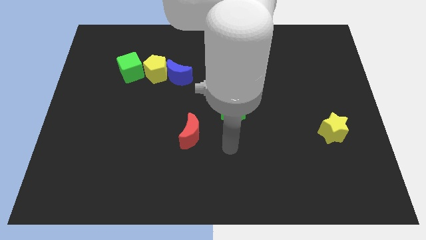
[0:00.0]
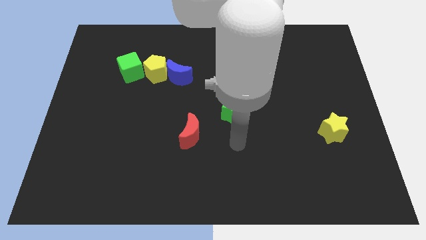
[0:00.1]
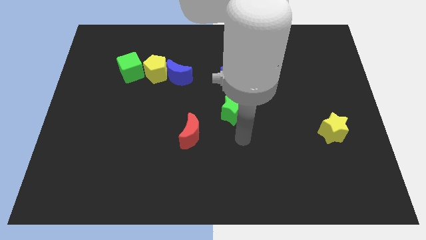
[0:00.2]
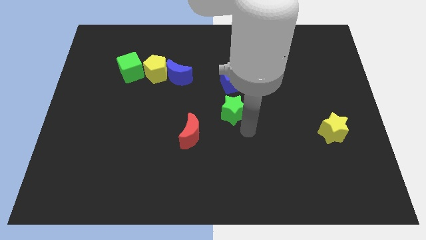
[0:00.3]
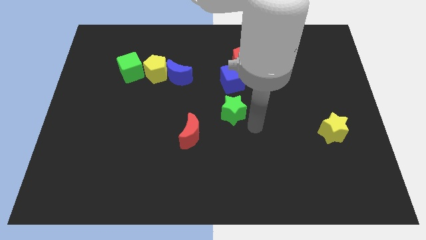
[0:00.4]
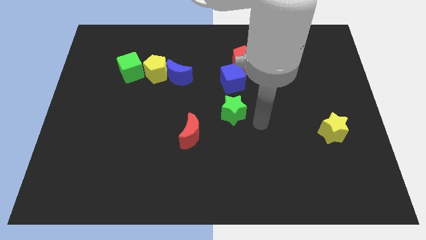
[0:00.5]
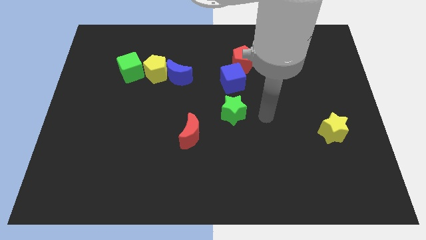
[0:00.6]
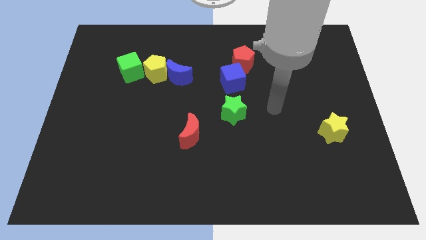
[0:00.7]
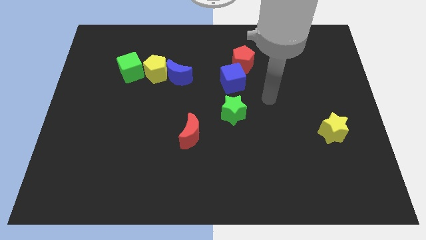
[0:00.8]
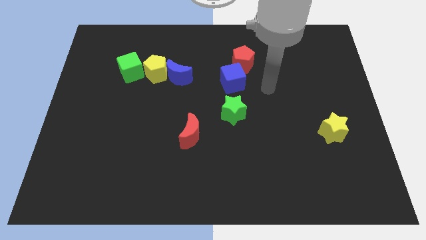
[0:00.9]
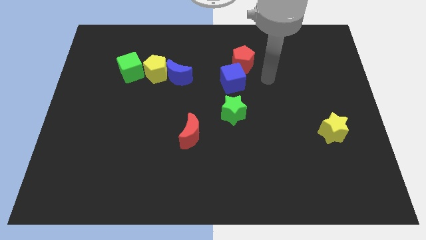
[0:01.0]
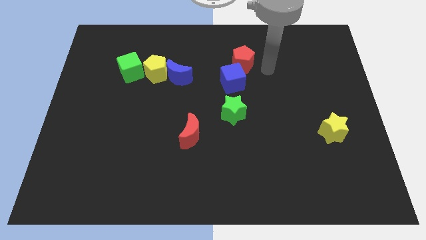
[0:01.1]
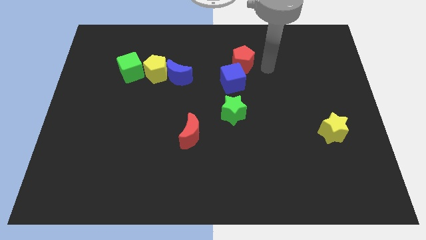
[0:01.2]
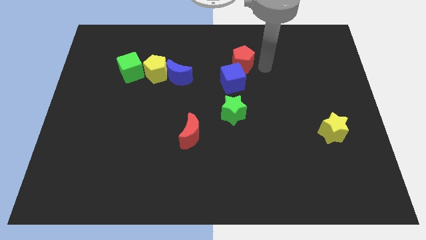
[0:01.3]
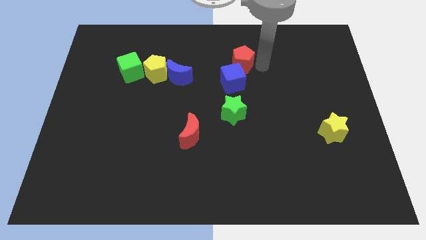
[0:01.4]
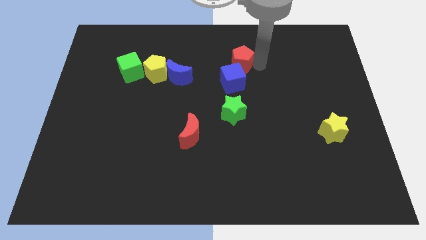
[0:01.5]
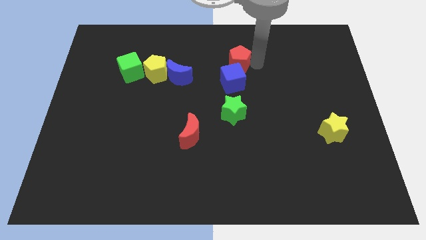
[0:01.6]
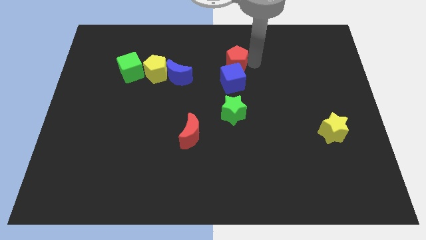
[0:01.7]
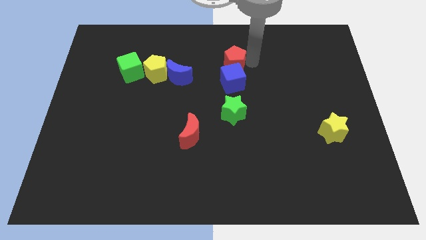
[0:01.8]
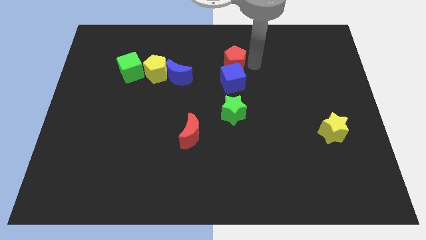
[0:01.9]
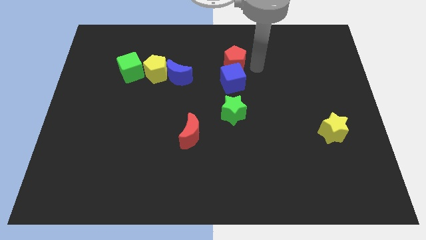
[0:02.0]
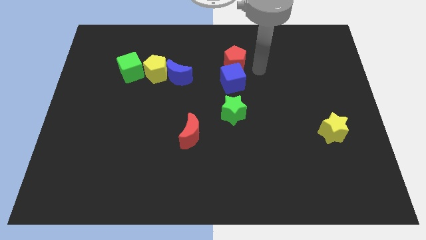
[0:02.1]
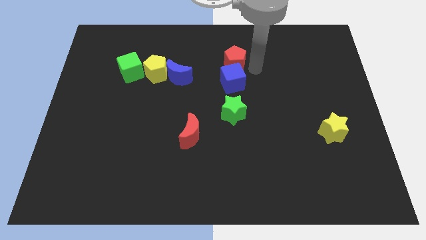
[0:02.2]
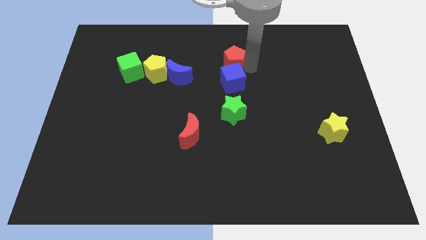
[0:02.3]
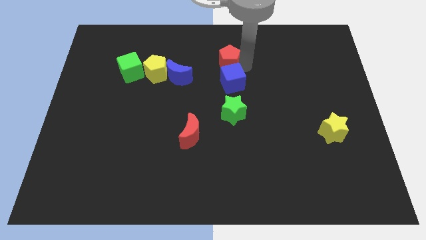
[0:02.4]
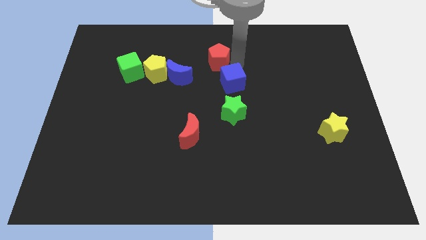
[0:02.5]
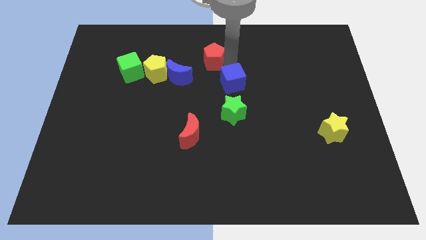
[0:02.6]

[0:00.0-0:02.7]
push the red pentagon a little bit to the left

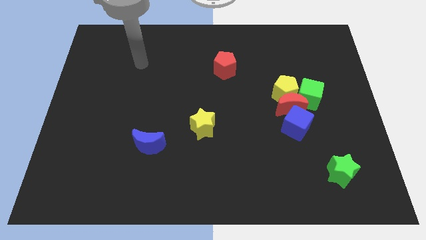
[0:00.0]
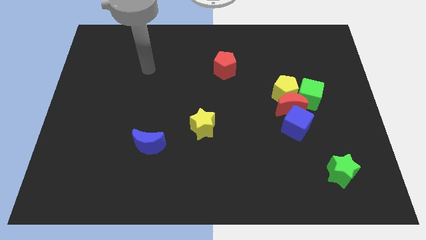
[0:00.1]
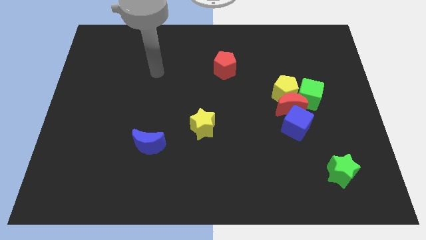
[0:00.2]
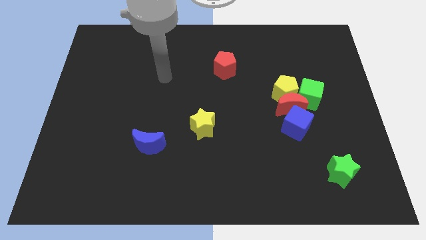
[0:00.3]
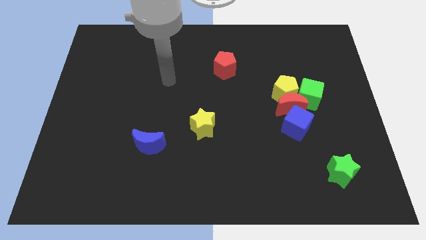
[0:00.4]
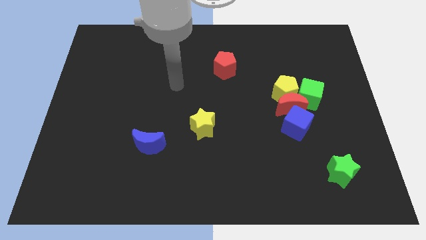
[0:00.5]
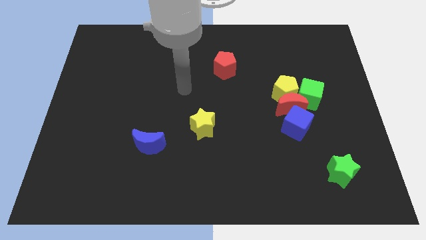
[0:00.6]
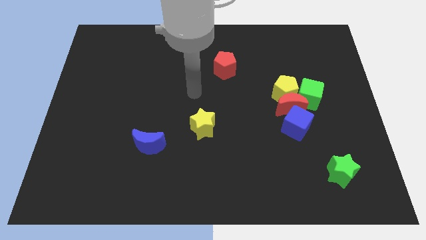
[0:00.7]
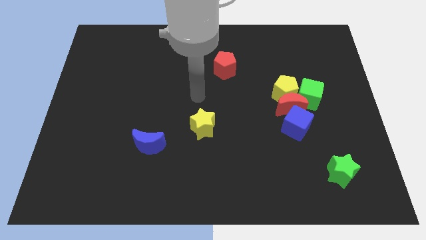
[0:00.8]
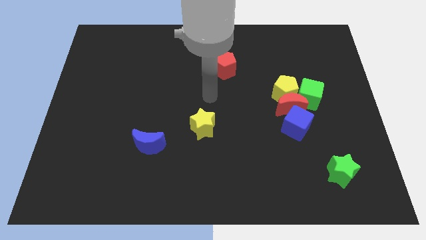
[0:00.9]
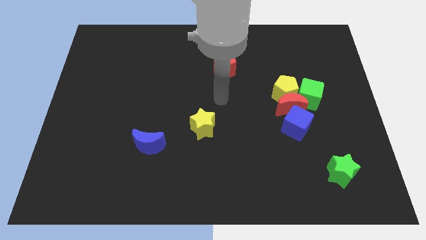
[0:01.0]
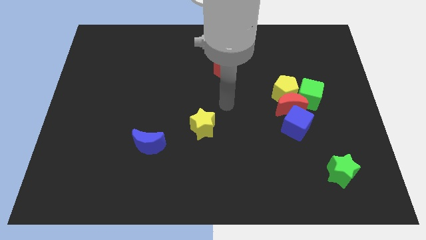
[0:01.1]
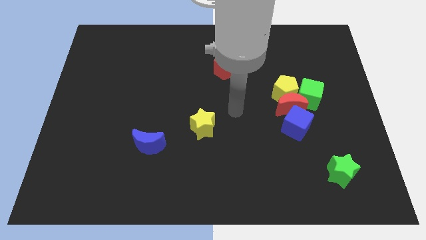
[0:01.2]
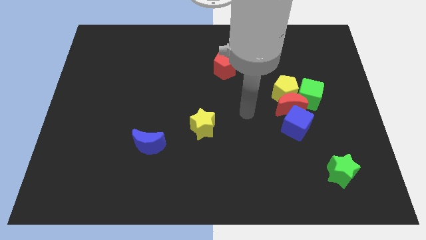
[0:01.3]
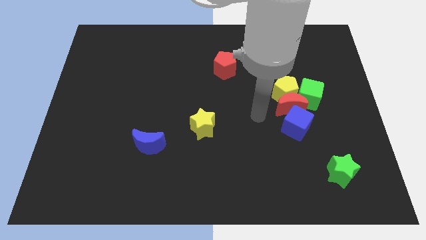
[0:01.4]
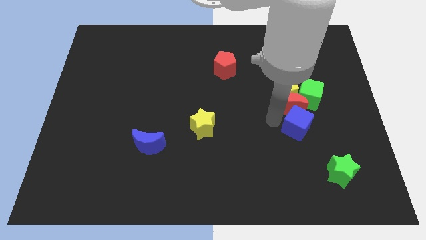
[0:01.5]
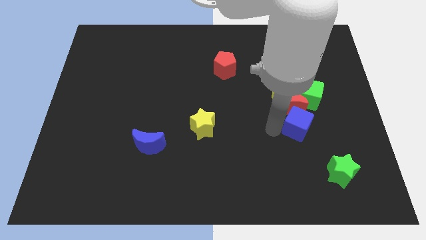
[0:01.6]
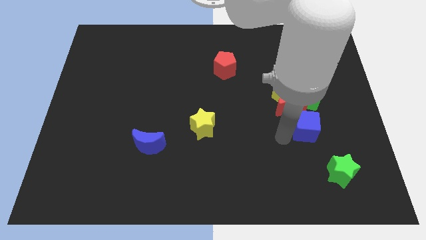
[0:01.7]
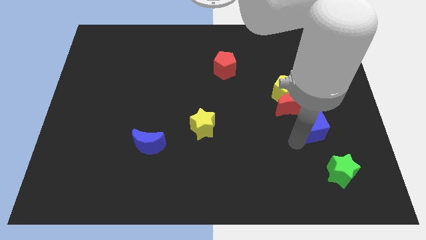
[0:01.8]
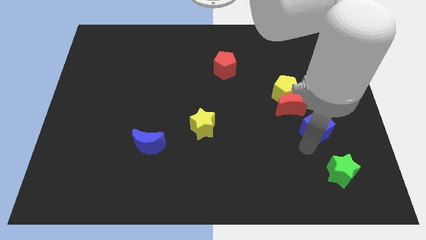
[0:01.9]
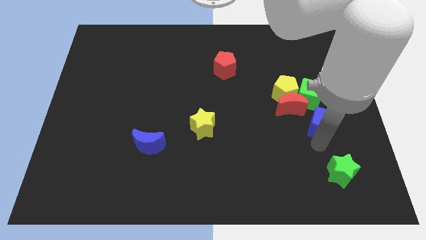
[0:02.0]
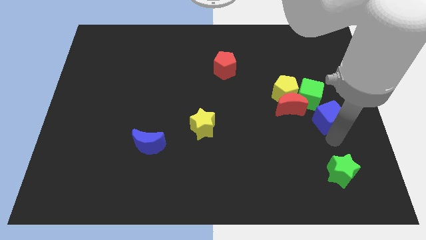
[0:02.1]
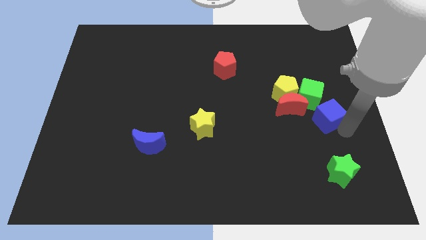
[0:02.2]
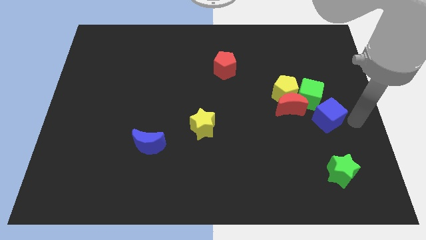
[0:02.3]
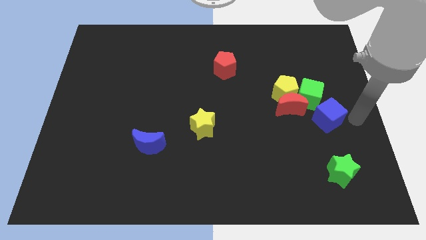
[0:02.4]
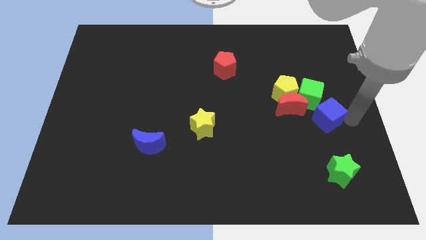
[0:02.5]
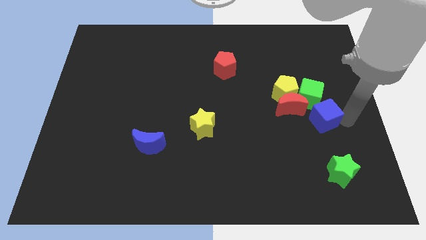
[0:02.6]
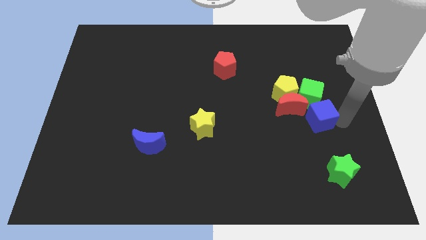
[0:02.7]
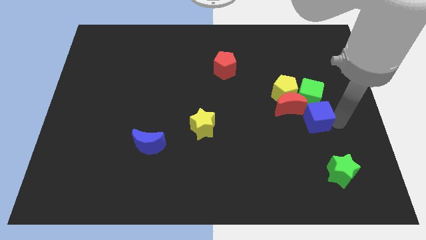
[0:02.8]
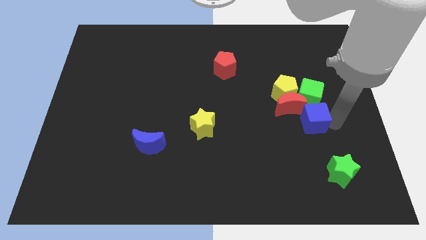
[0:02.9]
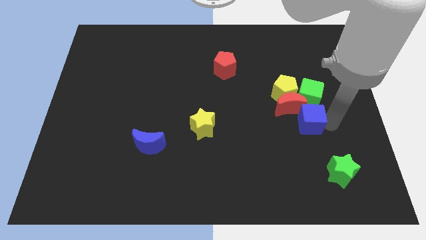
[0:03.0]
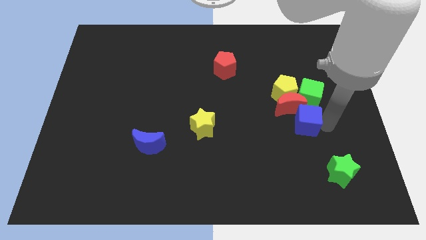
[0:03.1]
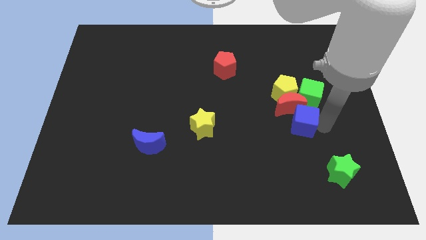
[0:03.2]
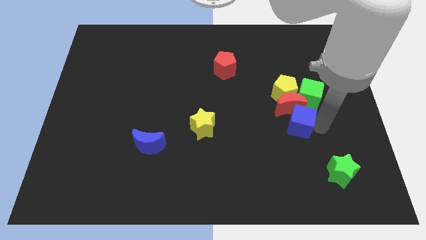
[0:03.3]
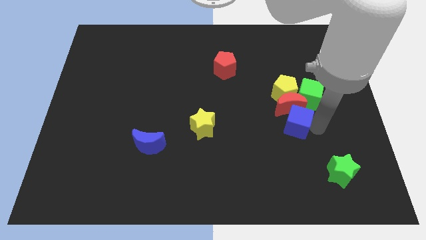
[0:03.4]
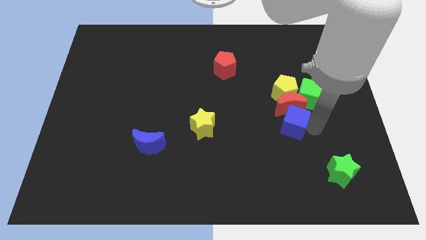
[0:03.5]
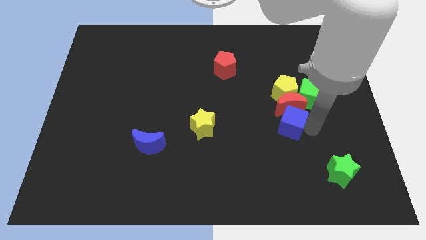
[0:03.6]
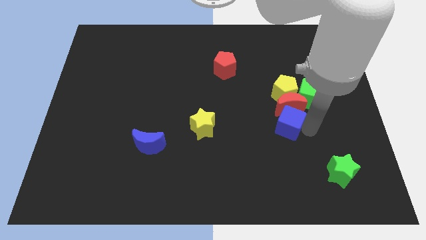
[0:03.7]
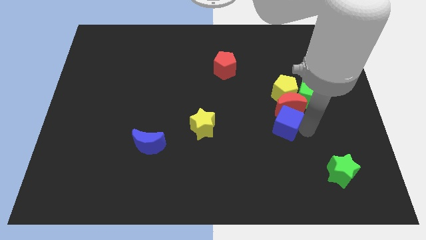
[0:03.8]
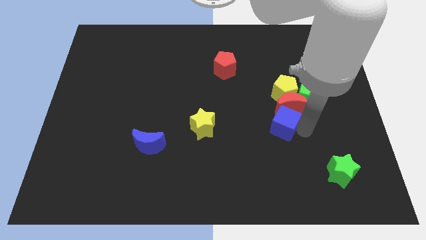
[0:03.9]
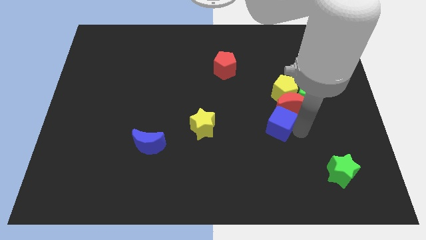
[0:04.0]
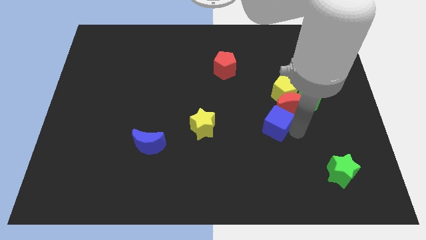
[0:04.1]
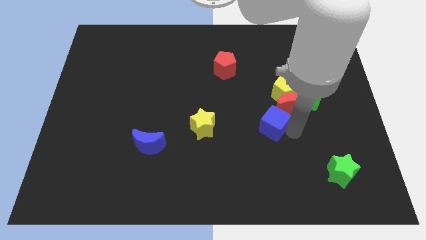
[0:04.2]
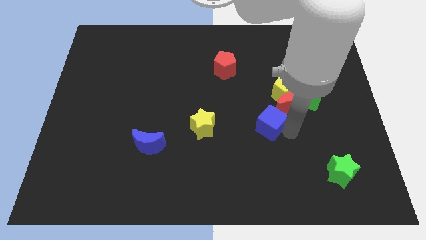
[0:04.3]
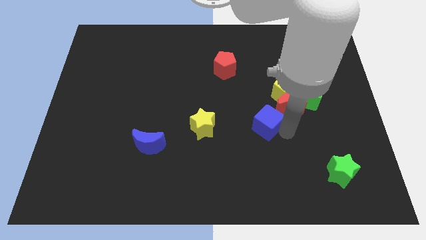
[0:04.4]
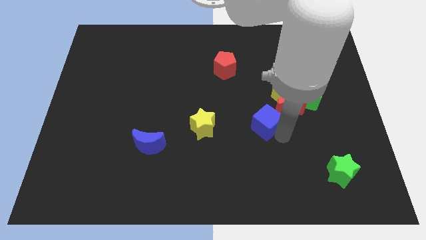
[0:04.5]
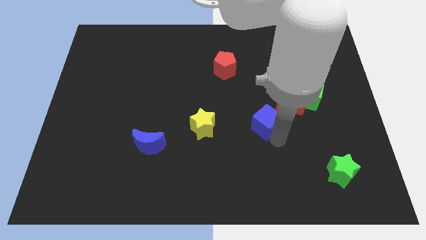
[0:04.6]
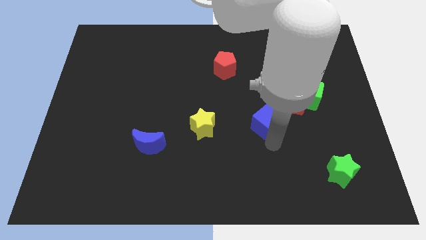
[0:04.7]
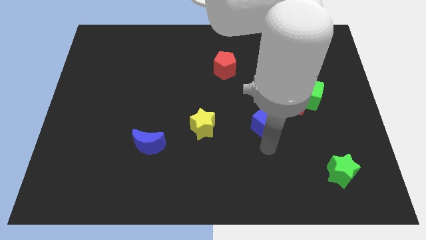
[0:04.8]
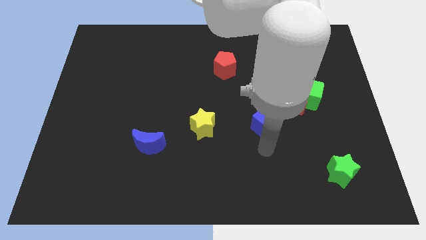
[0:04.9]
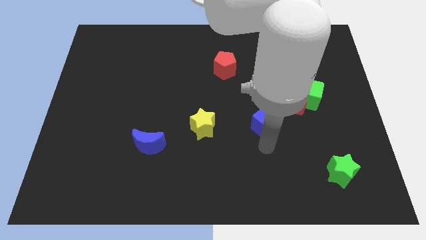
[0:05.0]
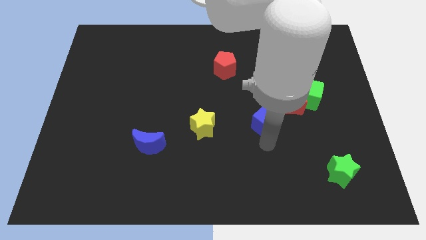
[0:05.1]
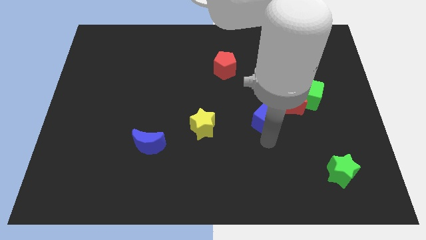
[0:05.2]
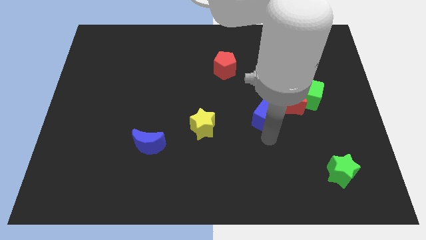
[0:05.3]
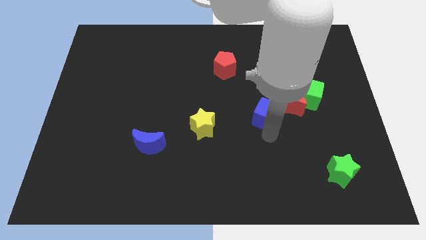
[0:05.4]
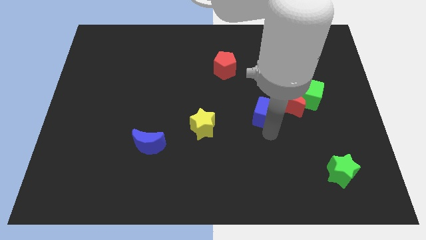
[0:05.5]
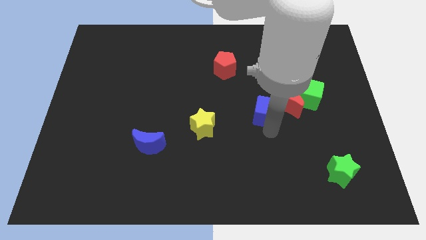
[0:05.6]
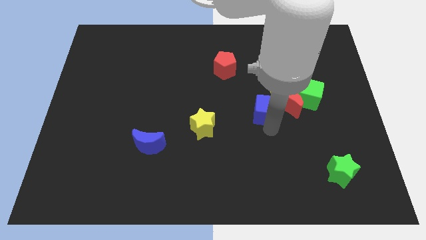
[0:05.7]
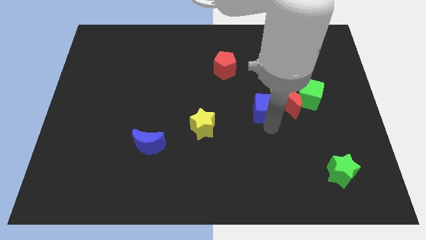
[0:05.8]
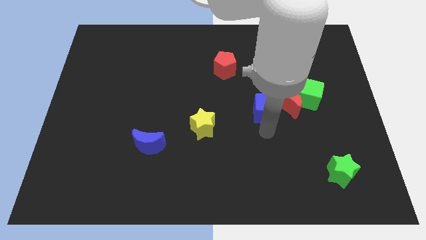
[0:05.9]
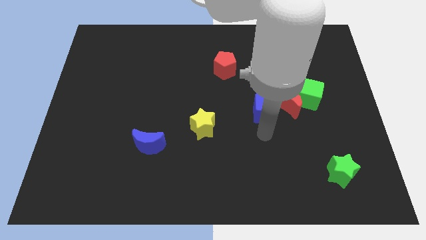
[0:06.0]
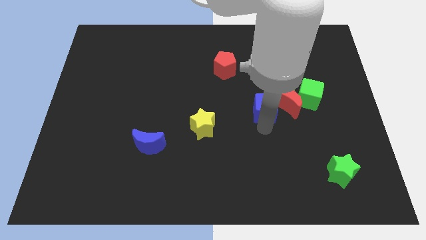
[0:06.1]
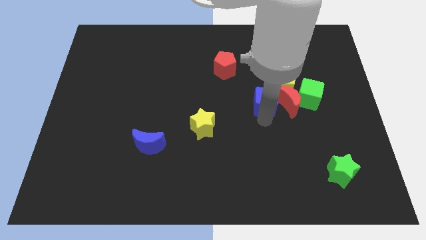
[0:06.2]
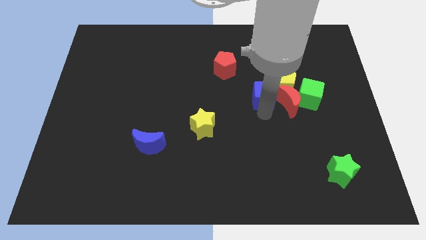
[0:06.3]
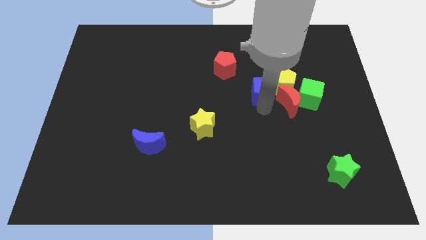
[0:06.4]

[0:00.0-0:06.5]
move the blue cube up slightly
